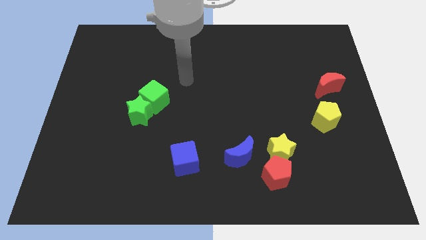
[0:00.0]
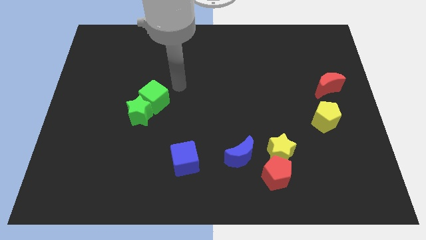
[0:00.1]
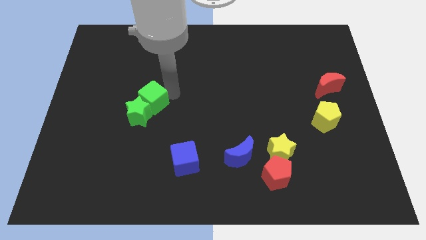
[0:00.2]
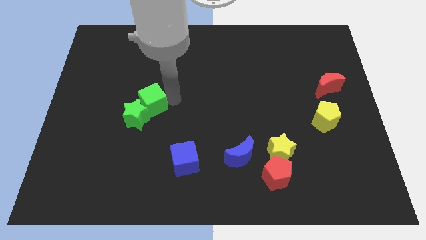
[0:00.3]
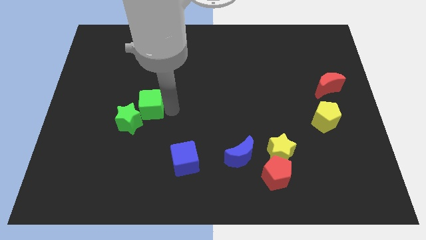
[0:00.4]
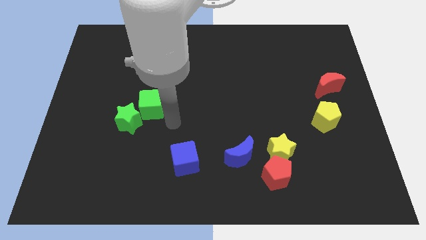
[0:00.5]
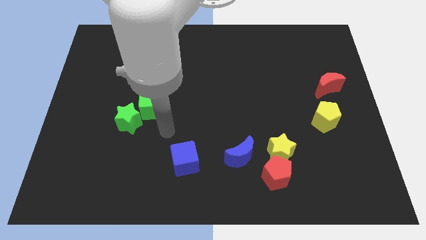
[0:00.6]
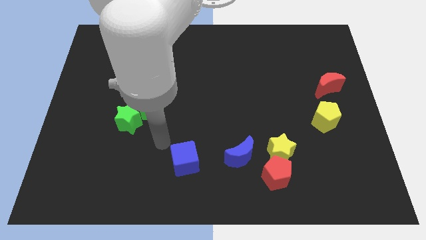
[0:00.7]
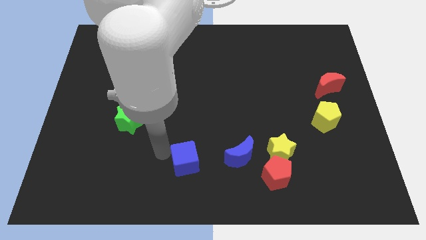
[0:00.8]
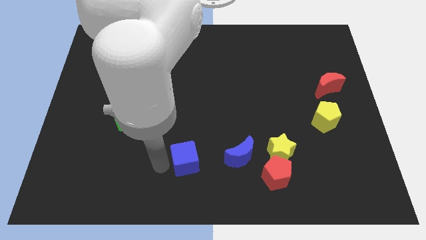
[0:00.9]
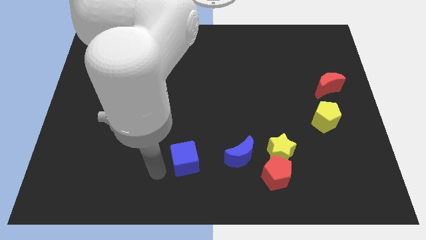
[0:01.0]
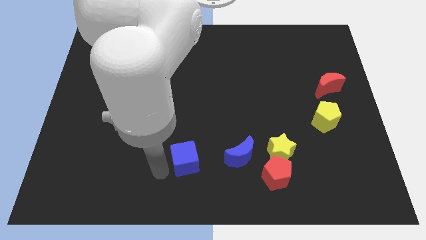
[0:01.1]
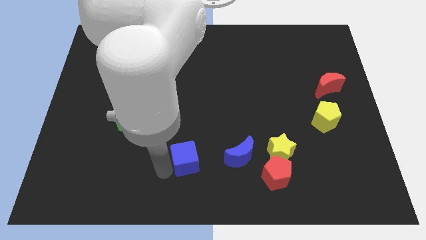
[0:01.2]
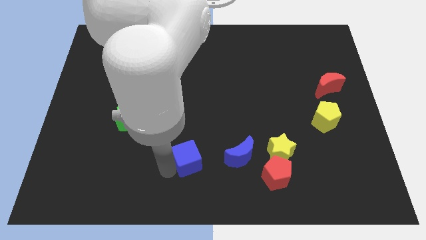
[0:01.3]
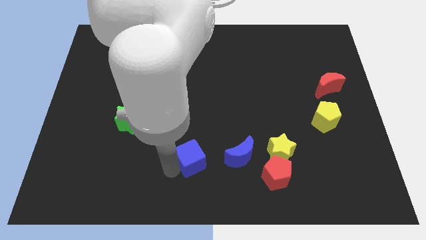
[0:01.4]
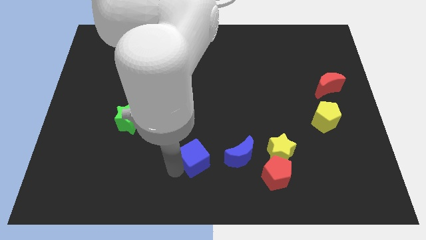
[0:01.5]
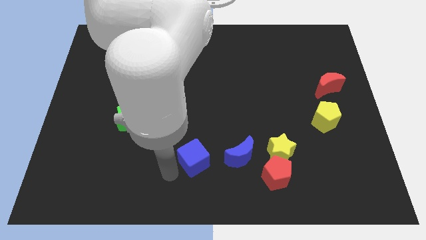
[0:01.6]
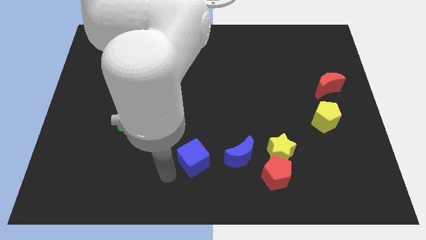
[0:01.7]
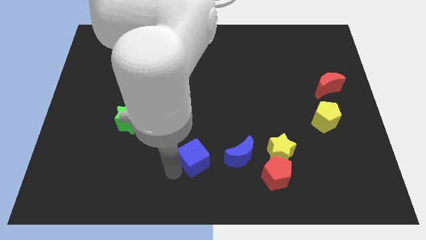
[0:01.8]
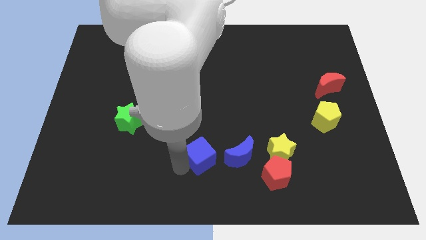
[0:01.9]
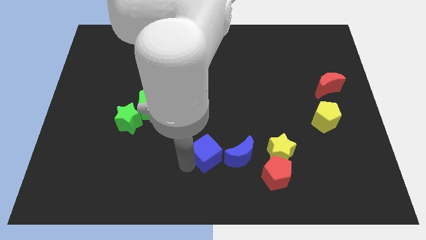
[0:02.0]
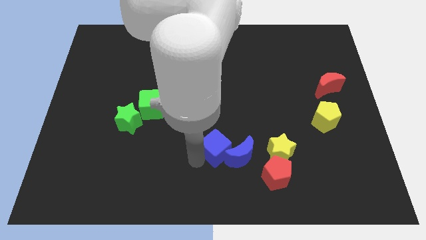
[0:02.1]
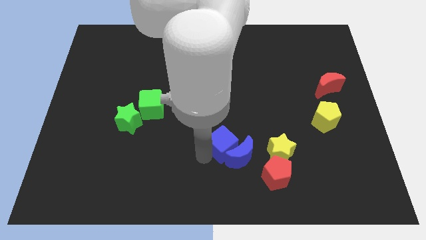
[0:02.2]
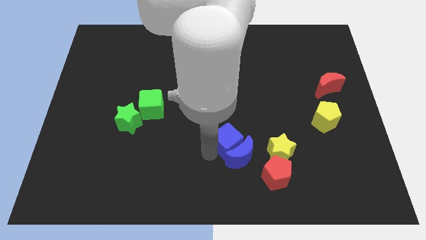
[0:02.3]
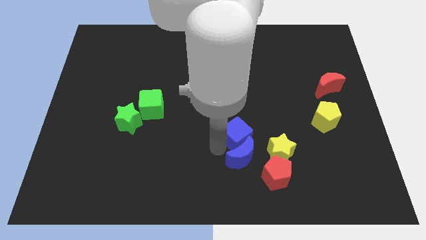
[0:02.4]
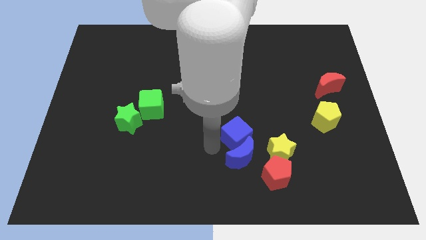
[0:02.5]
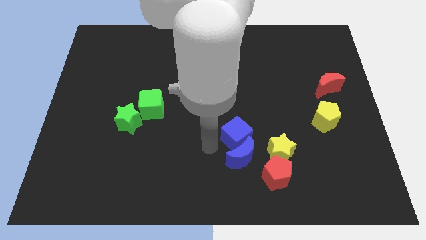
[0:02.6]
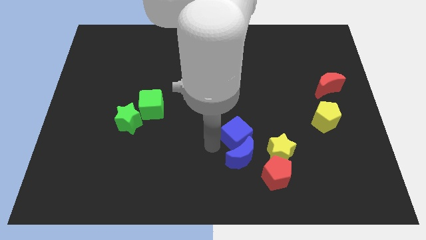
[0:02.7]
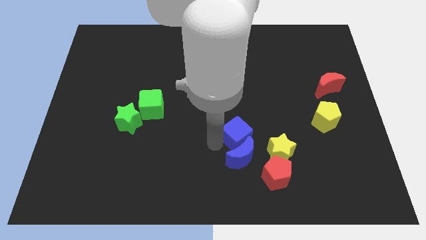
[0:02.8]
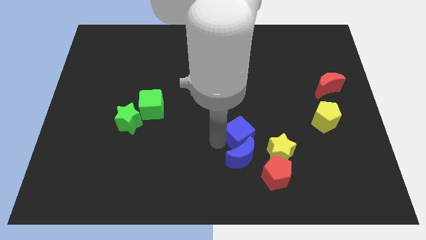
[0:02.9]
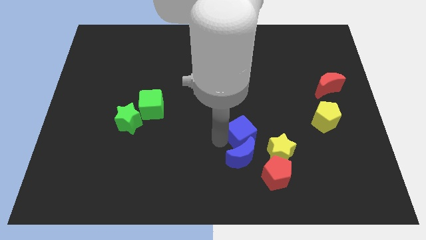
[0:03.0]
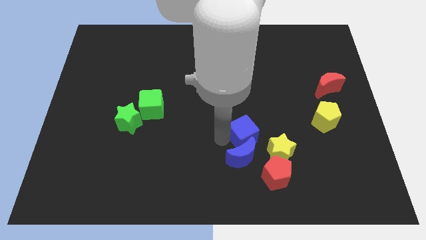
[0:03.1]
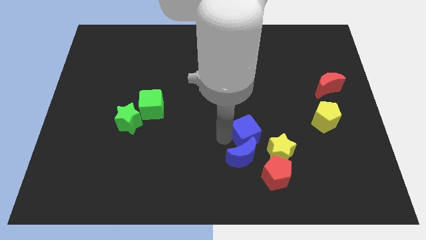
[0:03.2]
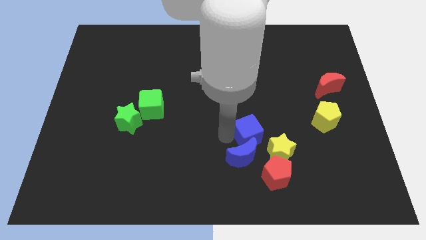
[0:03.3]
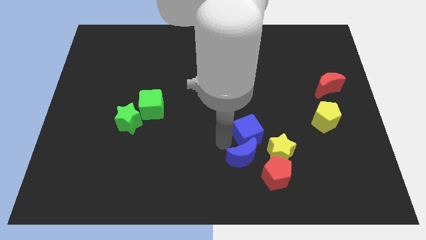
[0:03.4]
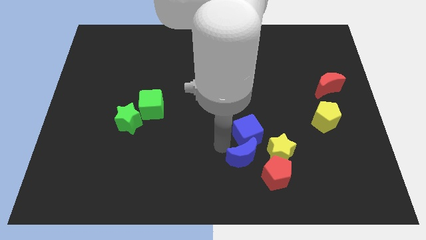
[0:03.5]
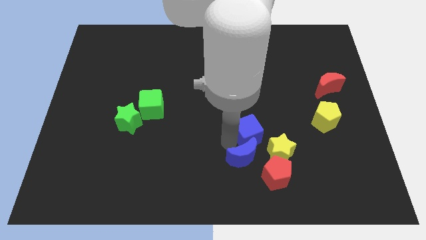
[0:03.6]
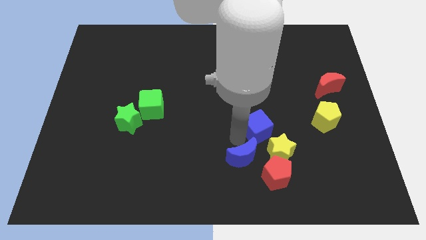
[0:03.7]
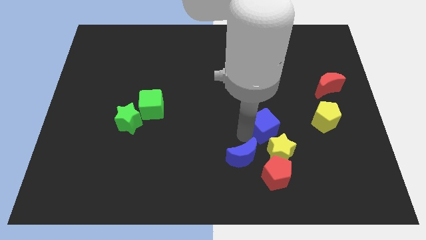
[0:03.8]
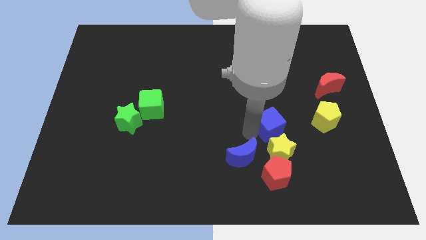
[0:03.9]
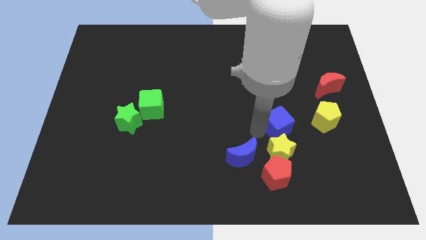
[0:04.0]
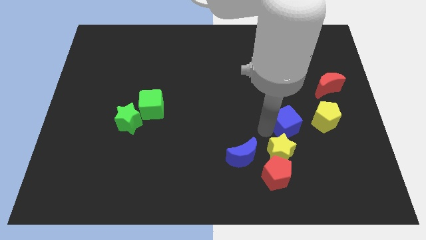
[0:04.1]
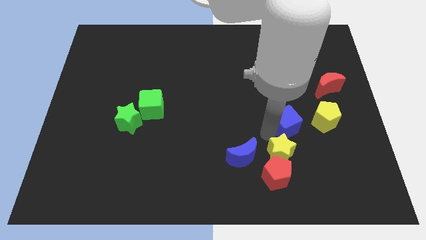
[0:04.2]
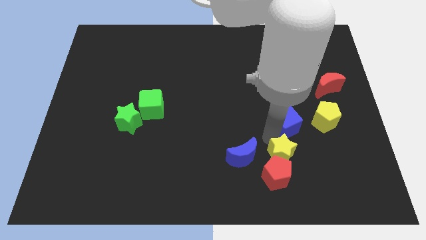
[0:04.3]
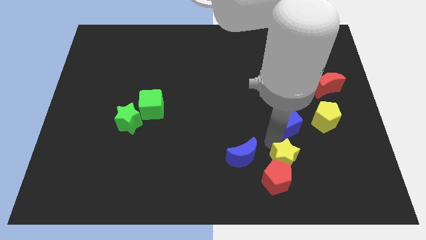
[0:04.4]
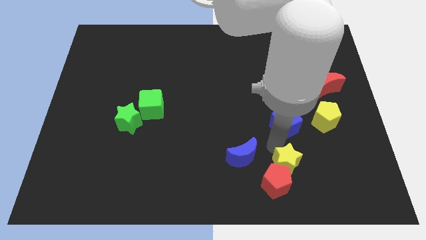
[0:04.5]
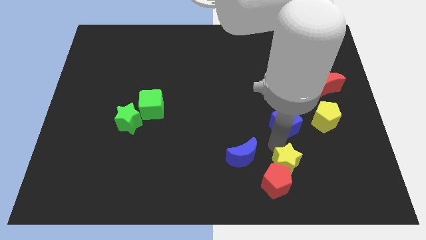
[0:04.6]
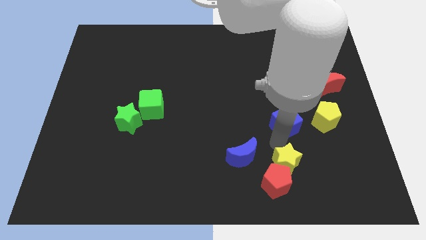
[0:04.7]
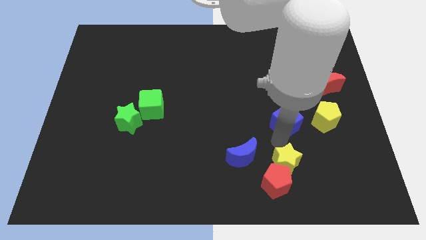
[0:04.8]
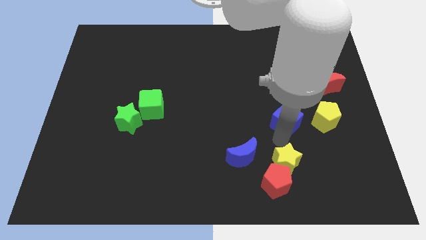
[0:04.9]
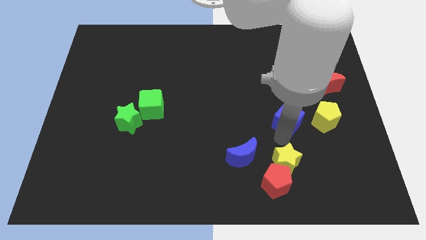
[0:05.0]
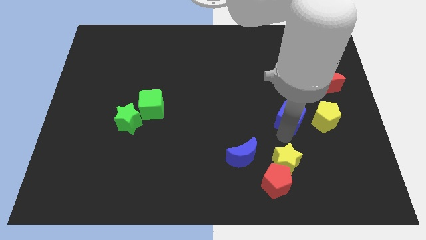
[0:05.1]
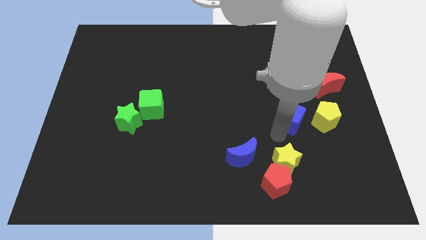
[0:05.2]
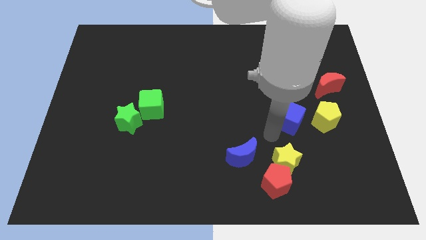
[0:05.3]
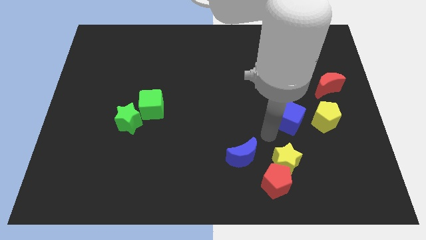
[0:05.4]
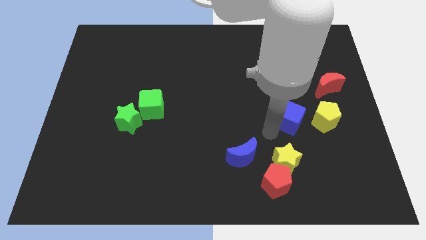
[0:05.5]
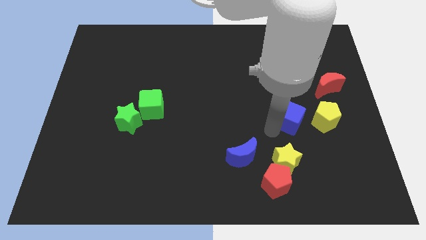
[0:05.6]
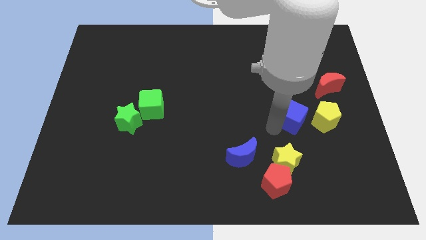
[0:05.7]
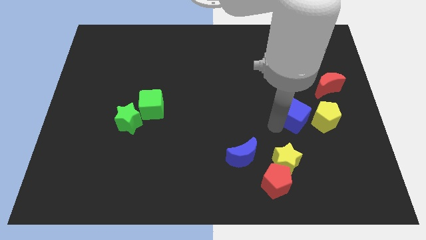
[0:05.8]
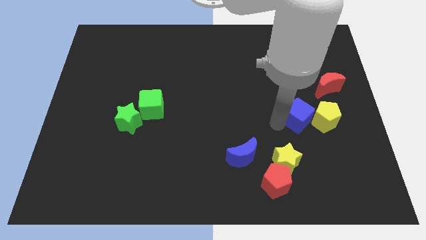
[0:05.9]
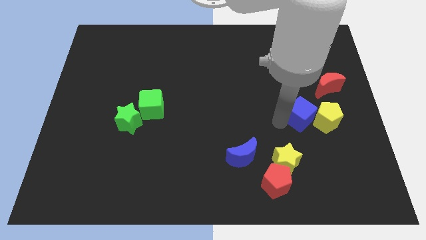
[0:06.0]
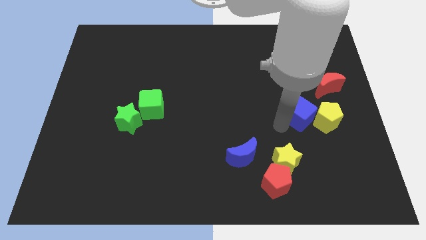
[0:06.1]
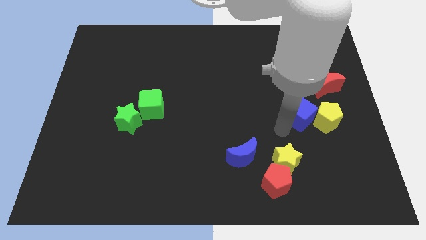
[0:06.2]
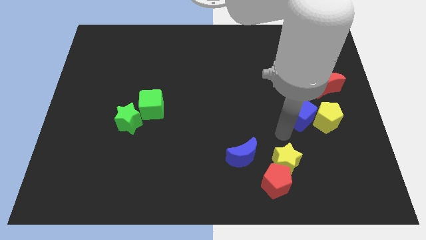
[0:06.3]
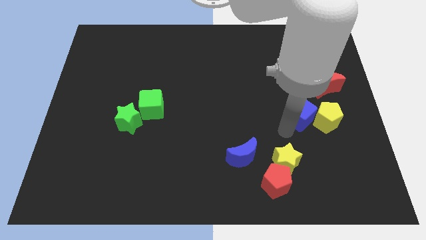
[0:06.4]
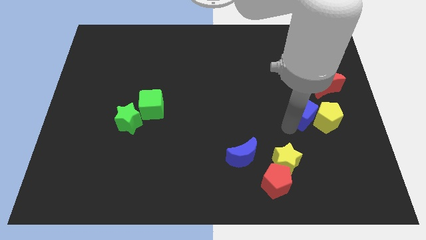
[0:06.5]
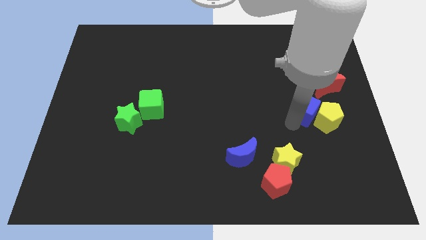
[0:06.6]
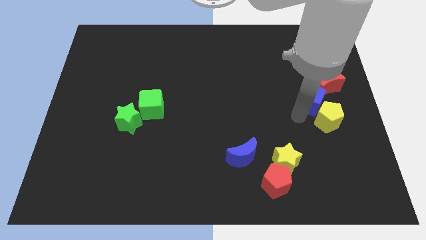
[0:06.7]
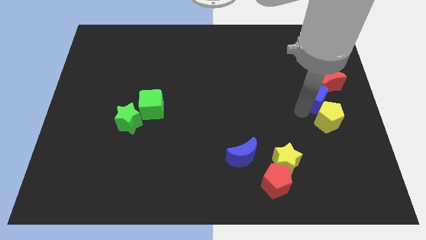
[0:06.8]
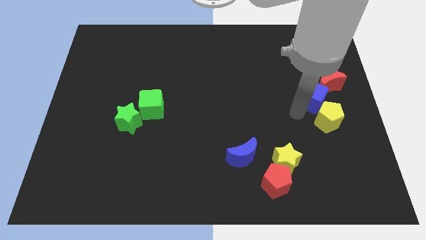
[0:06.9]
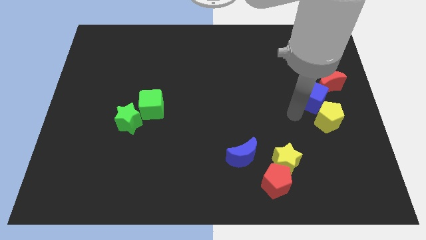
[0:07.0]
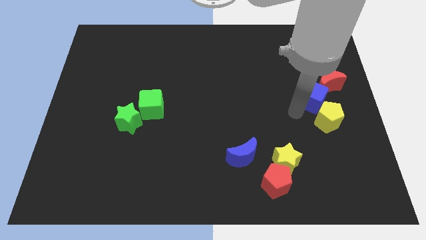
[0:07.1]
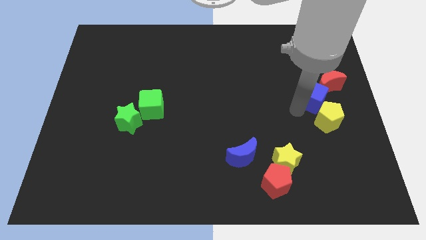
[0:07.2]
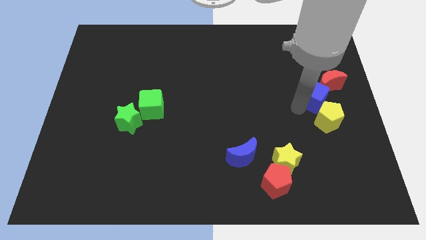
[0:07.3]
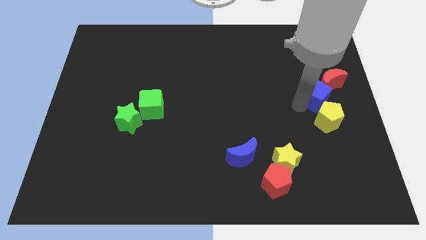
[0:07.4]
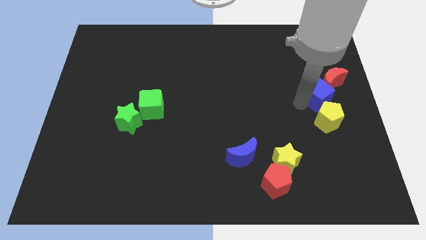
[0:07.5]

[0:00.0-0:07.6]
put the blue cube close to the red moon
